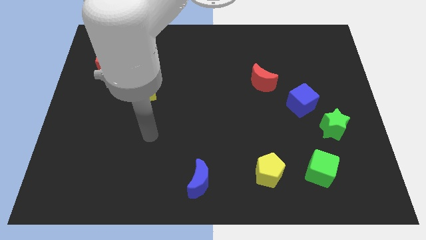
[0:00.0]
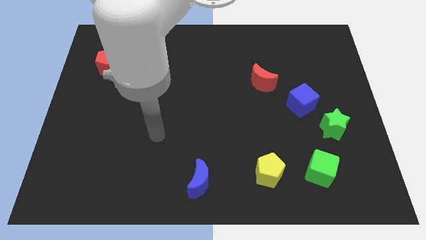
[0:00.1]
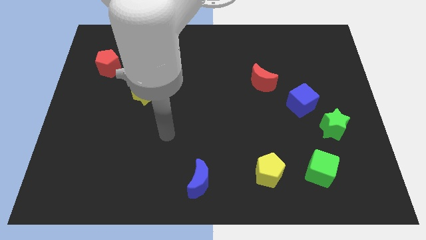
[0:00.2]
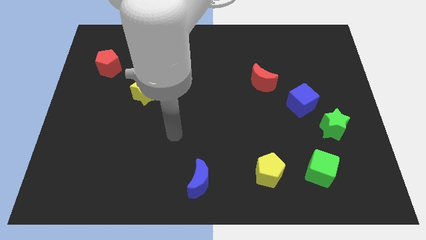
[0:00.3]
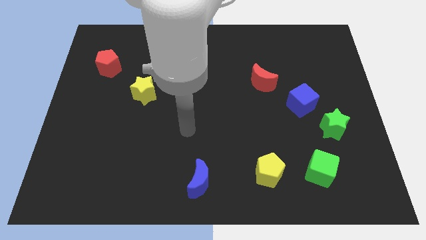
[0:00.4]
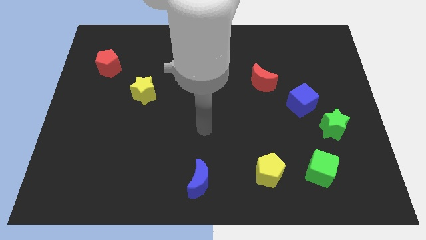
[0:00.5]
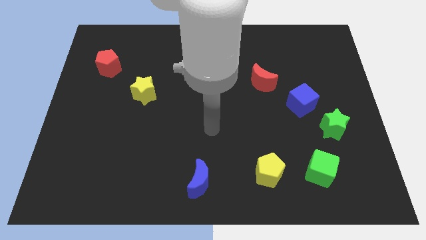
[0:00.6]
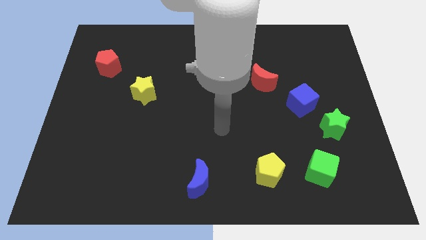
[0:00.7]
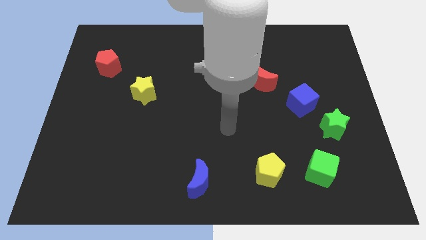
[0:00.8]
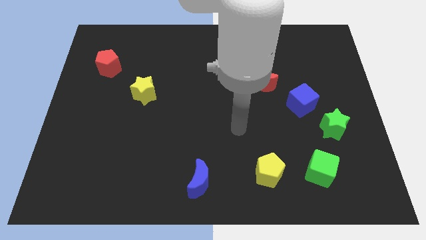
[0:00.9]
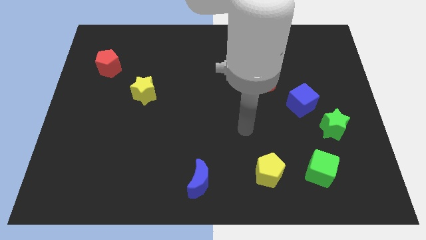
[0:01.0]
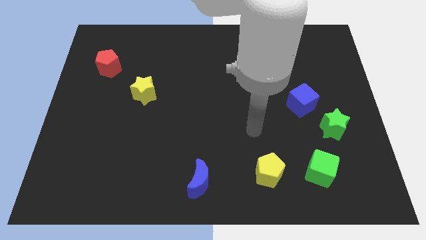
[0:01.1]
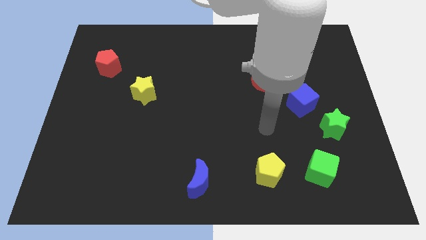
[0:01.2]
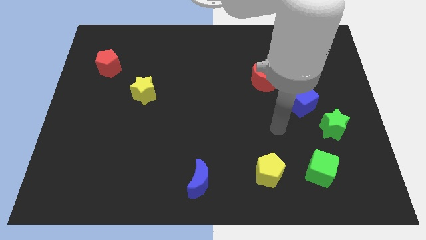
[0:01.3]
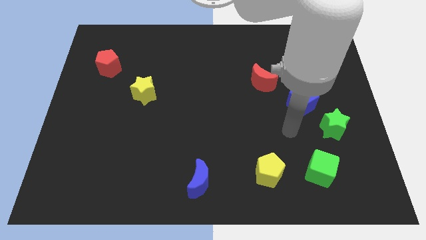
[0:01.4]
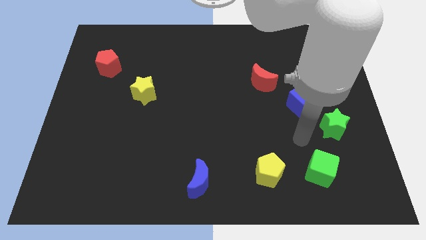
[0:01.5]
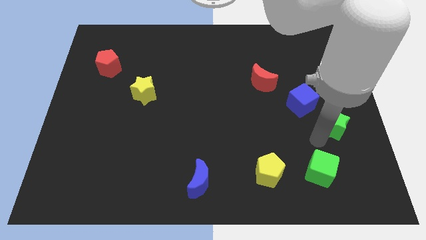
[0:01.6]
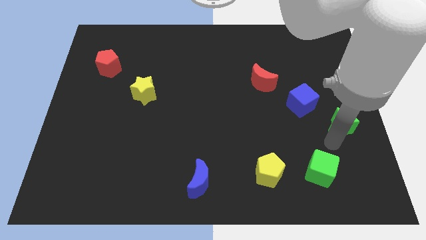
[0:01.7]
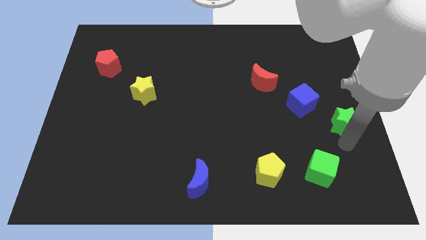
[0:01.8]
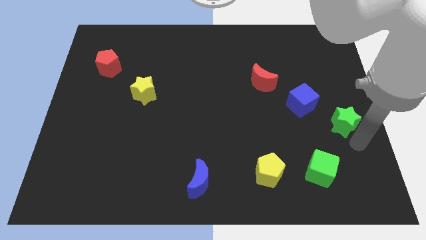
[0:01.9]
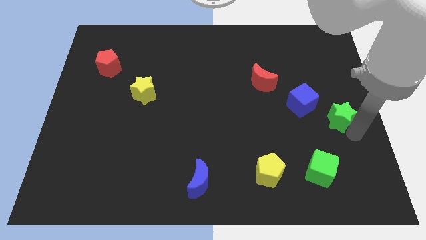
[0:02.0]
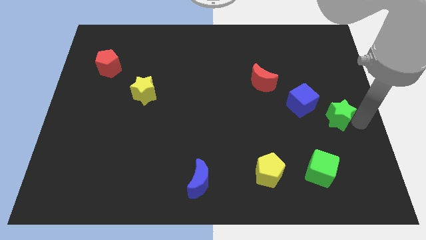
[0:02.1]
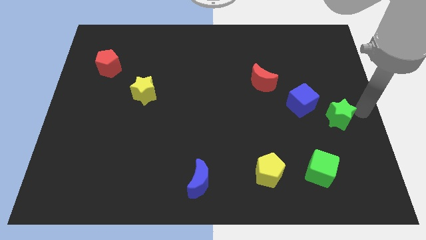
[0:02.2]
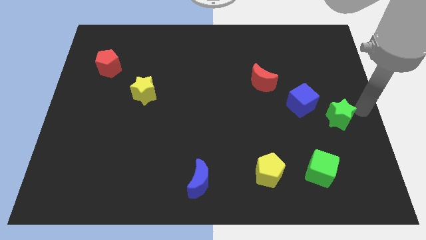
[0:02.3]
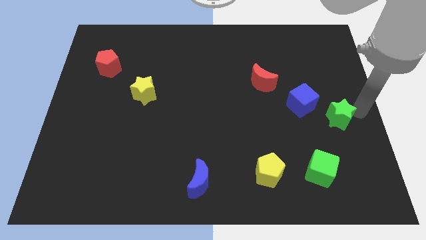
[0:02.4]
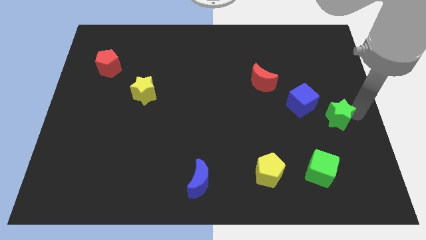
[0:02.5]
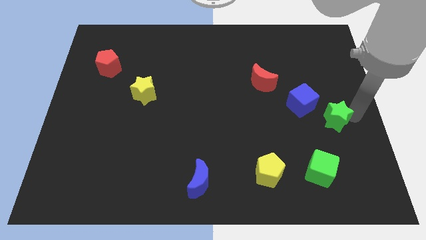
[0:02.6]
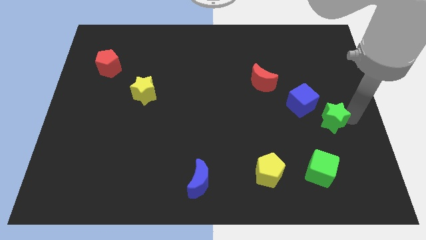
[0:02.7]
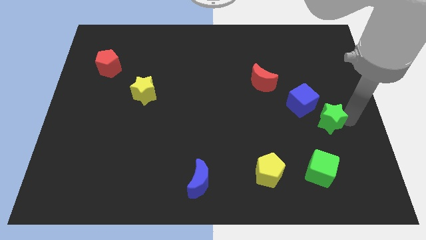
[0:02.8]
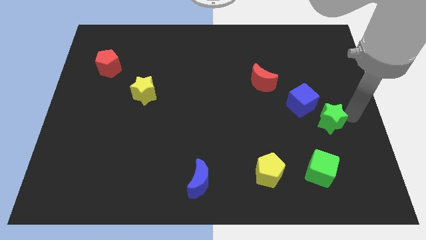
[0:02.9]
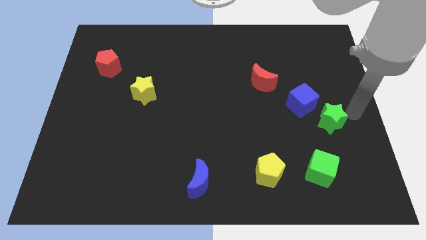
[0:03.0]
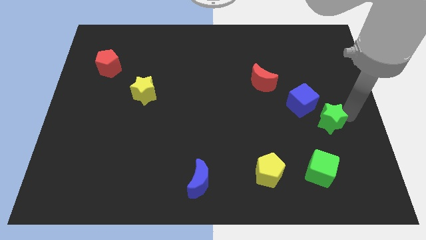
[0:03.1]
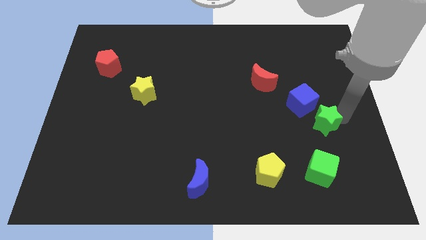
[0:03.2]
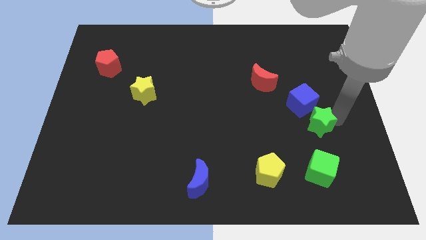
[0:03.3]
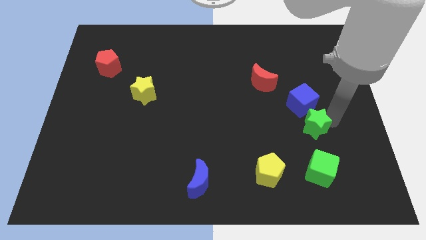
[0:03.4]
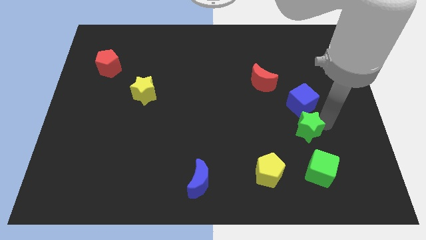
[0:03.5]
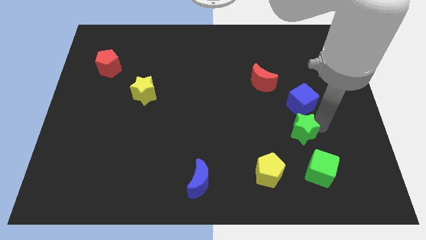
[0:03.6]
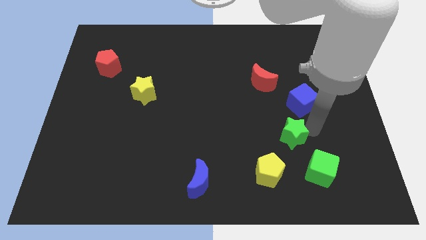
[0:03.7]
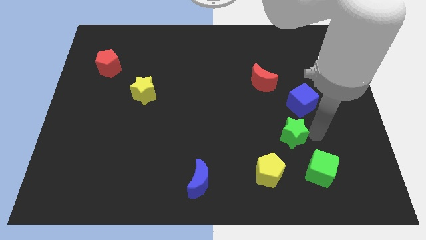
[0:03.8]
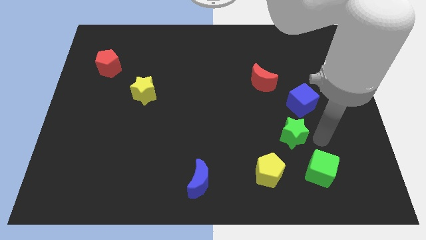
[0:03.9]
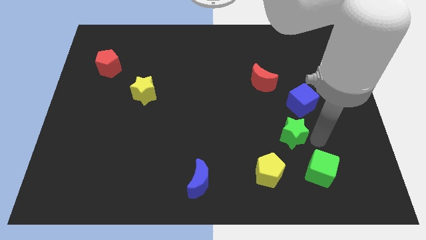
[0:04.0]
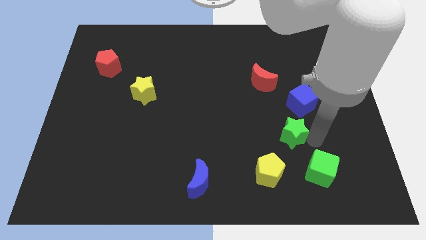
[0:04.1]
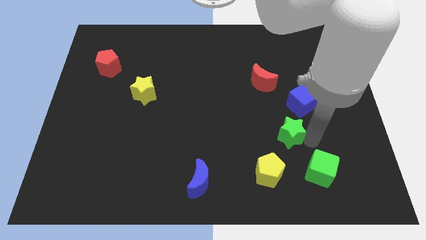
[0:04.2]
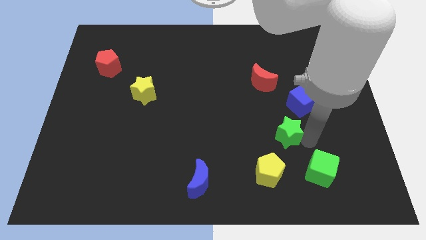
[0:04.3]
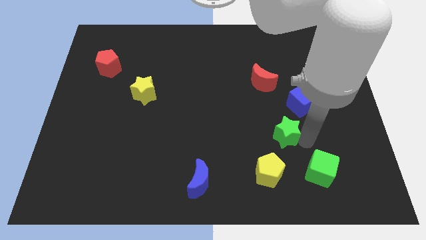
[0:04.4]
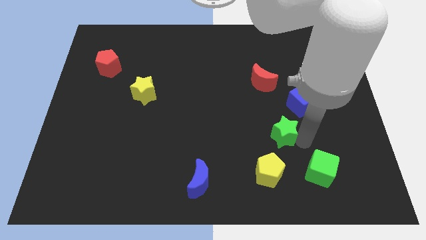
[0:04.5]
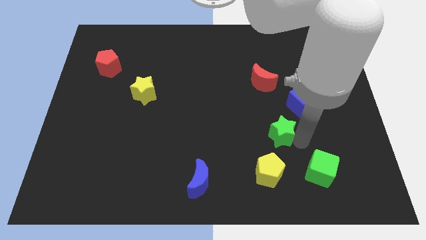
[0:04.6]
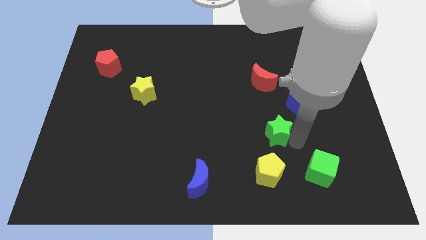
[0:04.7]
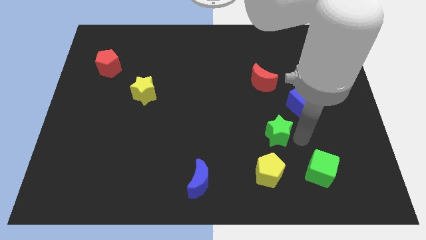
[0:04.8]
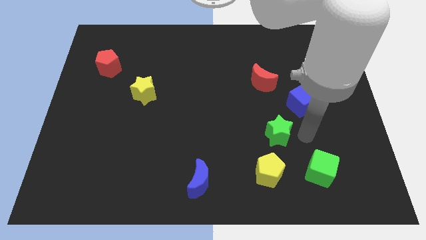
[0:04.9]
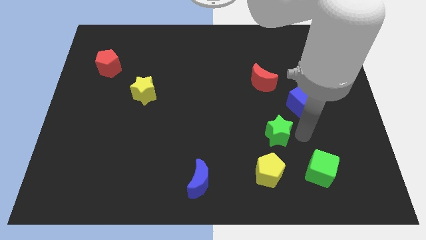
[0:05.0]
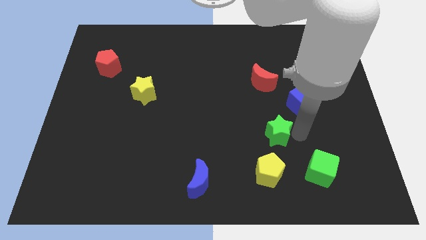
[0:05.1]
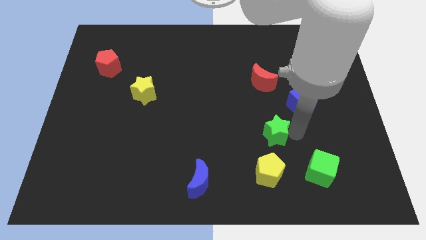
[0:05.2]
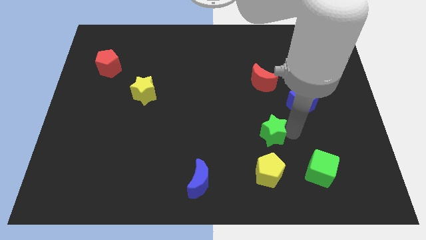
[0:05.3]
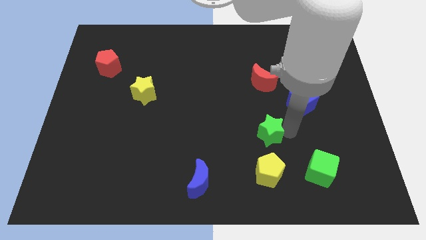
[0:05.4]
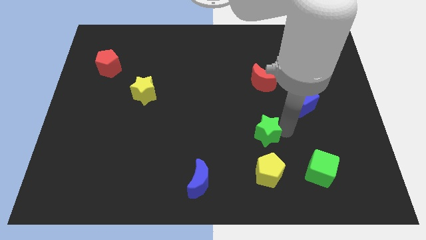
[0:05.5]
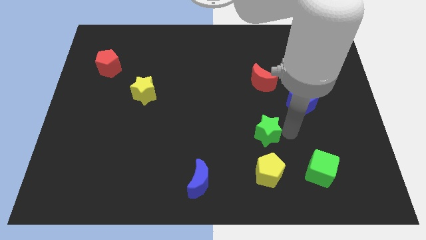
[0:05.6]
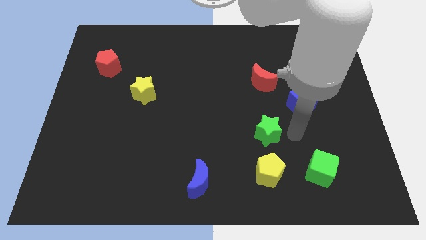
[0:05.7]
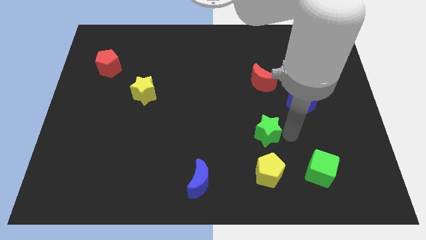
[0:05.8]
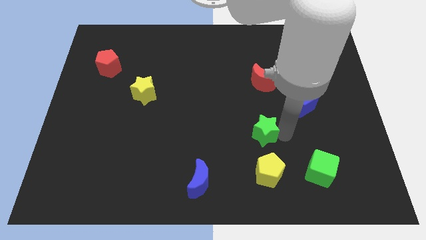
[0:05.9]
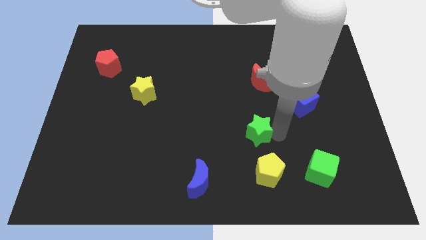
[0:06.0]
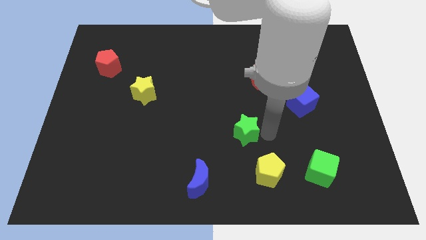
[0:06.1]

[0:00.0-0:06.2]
move the green star left

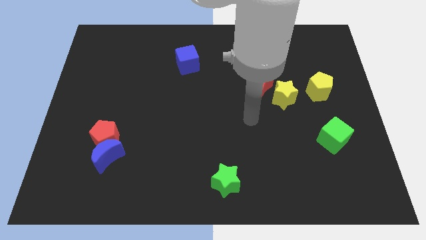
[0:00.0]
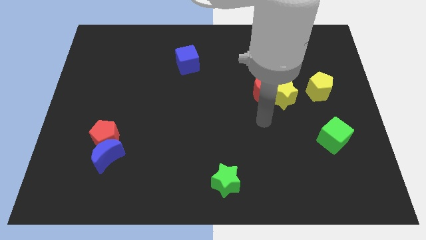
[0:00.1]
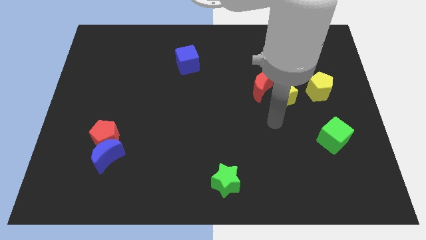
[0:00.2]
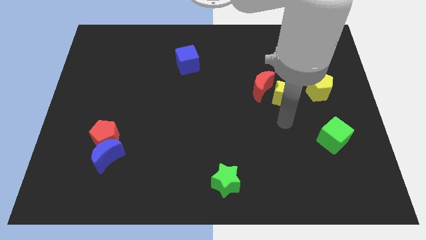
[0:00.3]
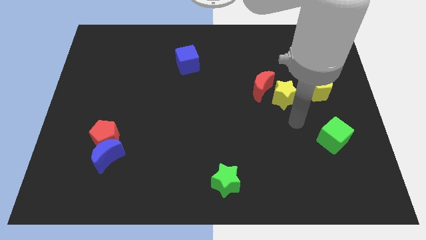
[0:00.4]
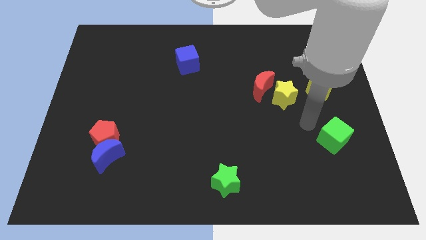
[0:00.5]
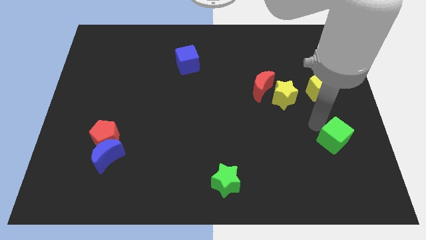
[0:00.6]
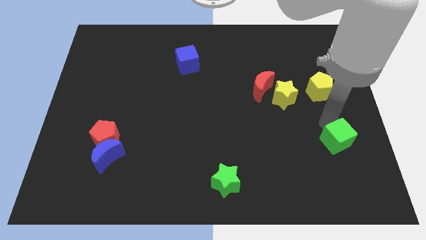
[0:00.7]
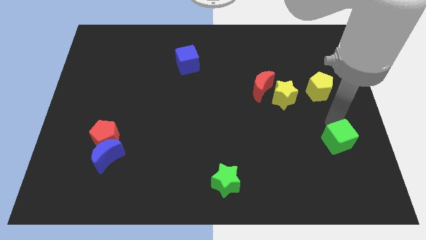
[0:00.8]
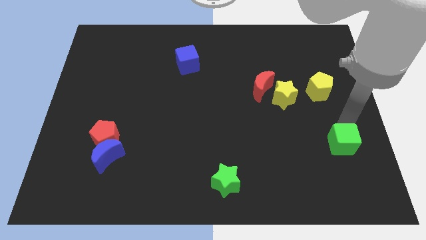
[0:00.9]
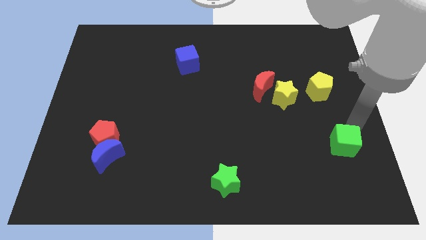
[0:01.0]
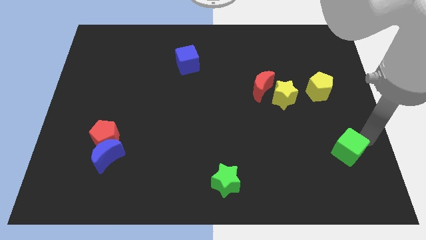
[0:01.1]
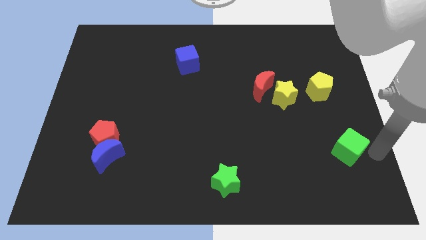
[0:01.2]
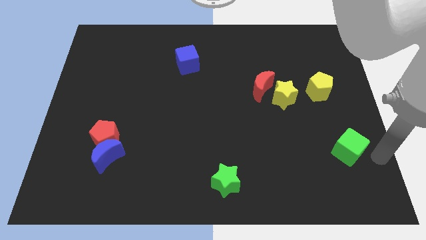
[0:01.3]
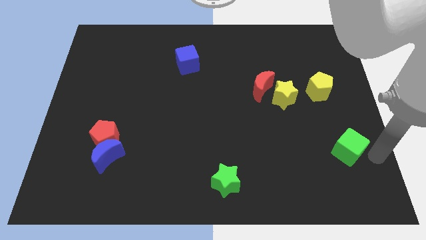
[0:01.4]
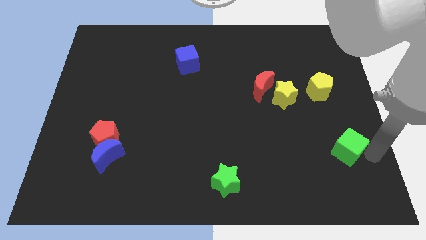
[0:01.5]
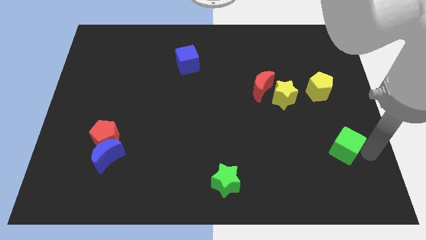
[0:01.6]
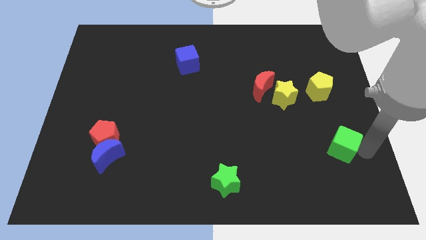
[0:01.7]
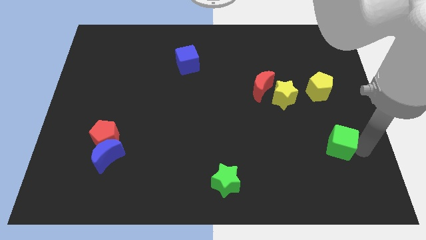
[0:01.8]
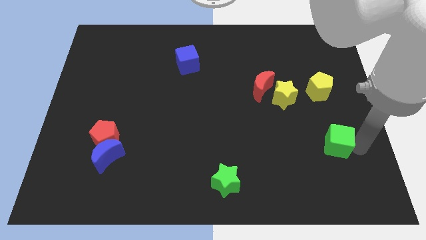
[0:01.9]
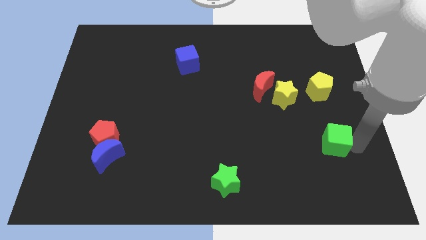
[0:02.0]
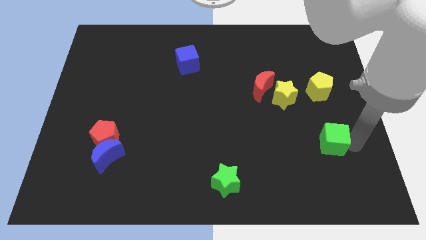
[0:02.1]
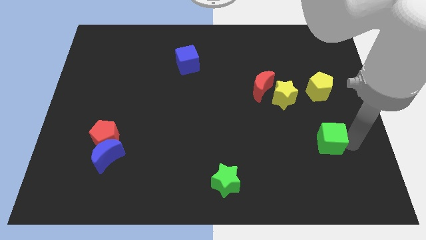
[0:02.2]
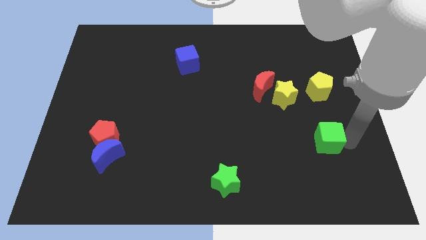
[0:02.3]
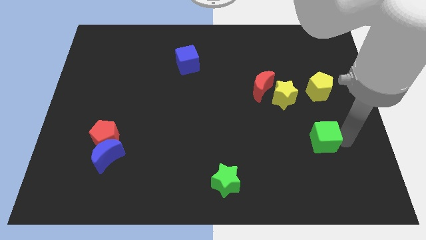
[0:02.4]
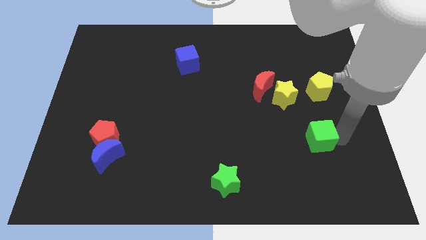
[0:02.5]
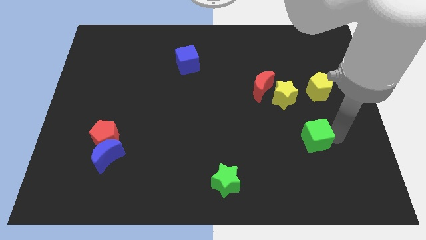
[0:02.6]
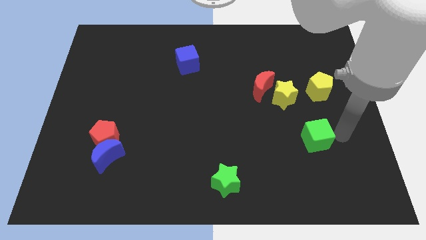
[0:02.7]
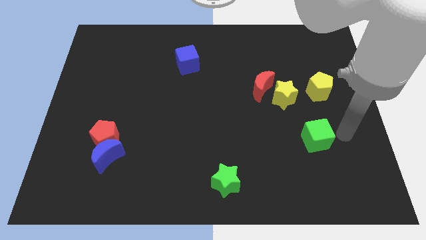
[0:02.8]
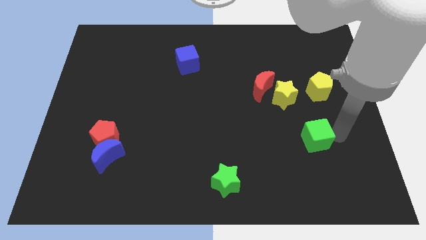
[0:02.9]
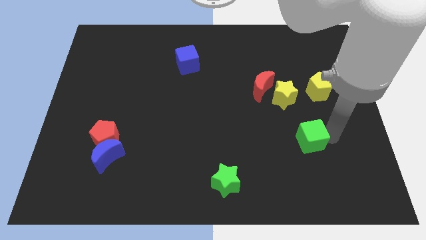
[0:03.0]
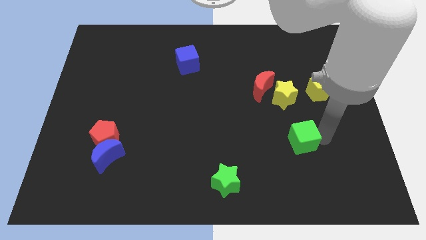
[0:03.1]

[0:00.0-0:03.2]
slide the green cube a little bit to the left
